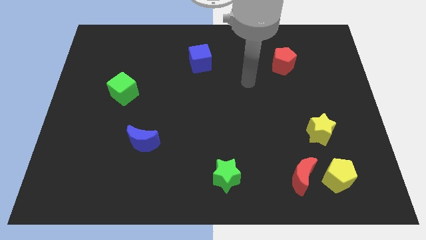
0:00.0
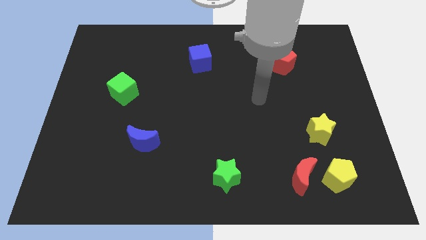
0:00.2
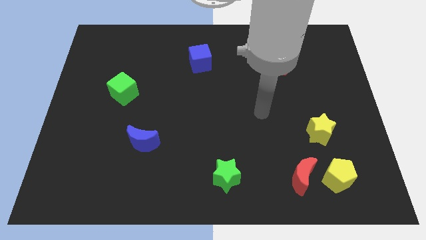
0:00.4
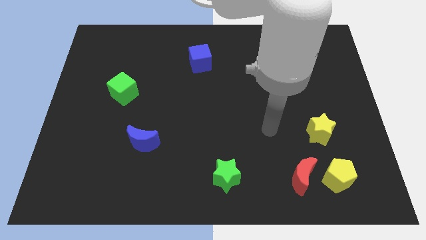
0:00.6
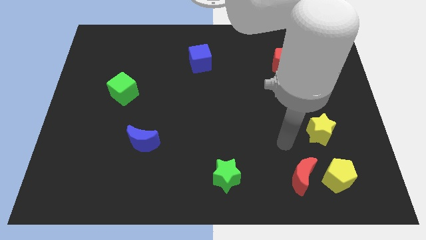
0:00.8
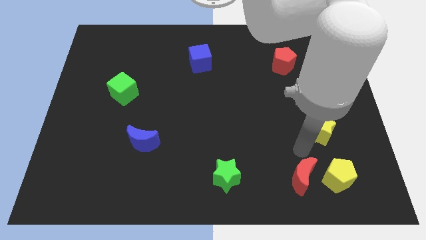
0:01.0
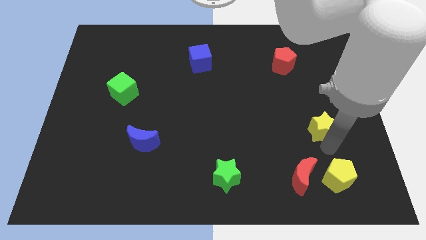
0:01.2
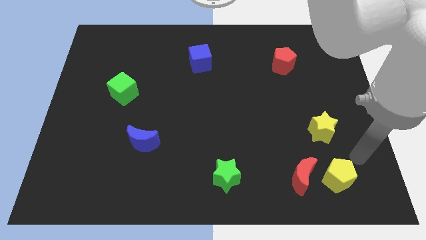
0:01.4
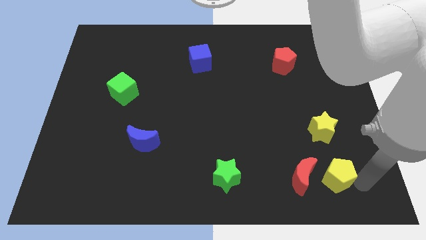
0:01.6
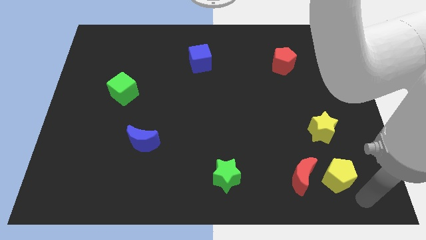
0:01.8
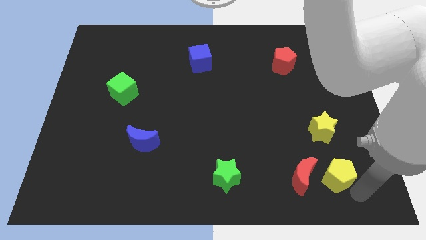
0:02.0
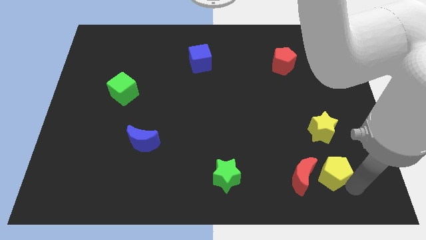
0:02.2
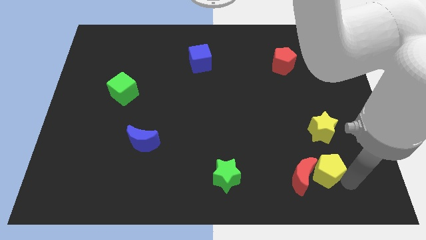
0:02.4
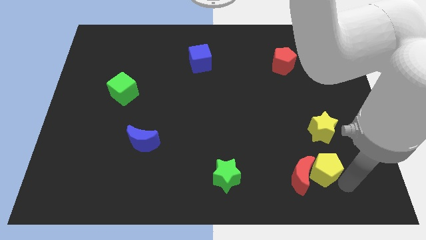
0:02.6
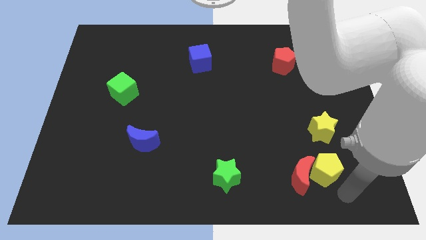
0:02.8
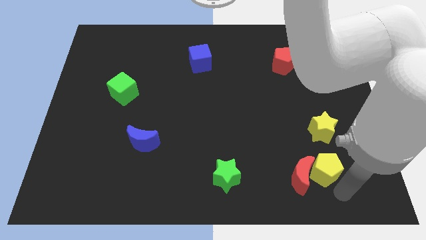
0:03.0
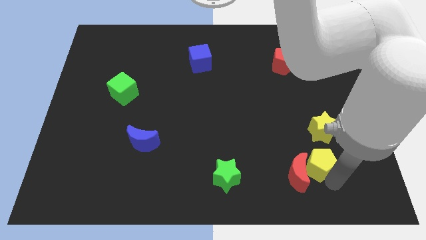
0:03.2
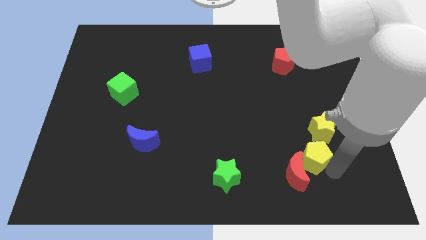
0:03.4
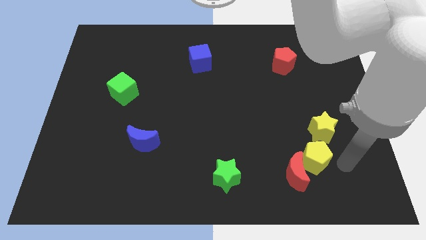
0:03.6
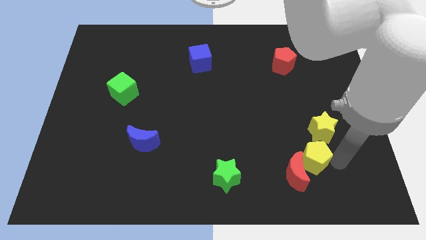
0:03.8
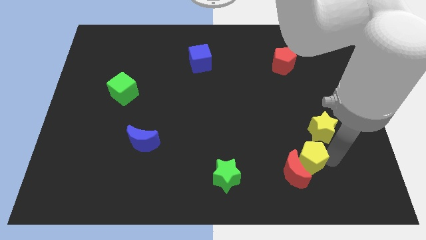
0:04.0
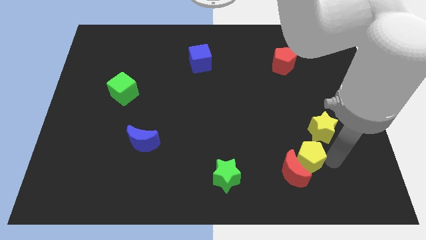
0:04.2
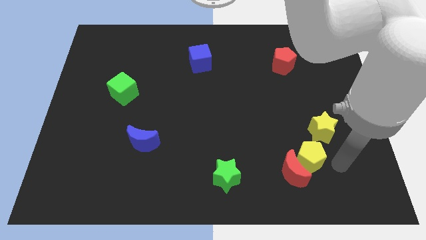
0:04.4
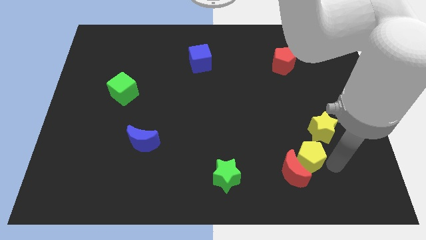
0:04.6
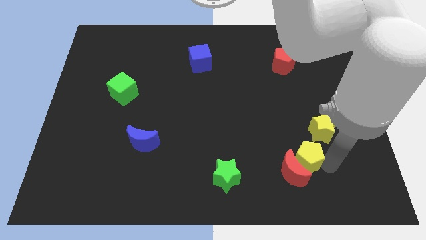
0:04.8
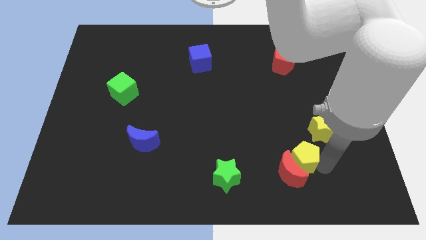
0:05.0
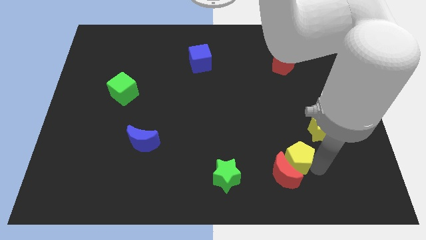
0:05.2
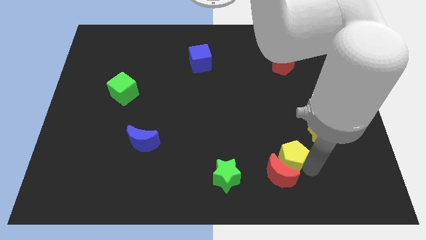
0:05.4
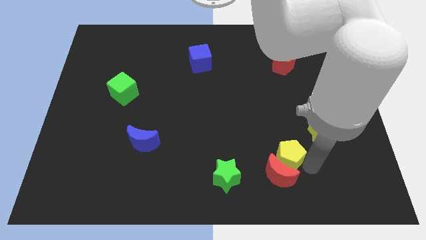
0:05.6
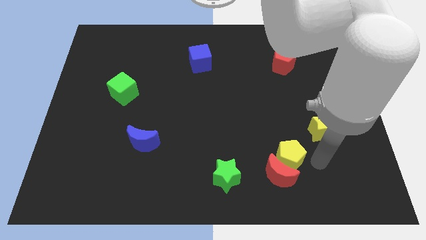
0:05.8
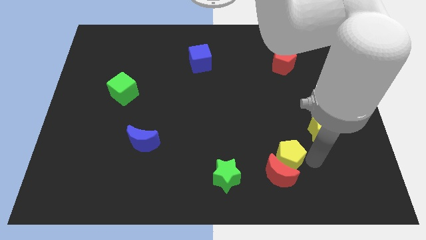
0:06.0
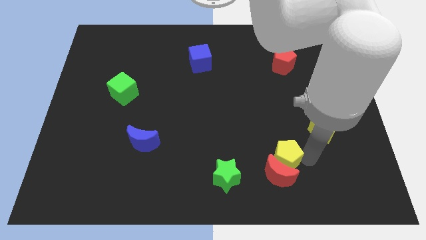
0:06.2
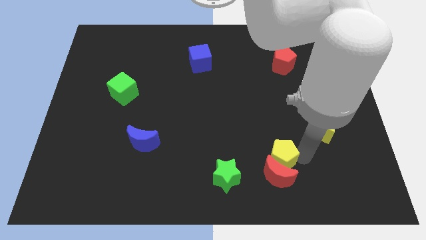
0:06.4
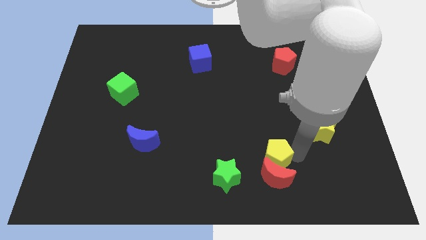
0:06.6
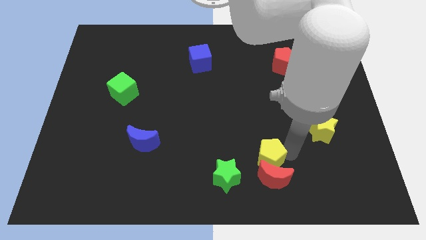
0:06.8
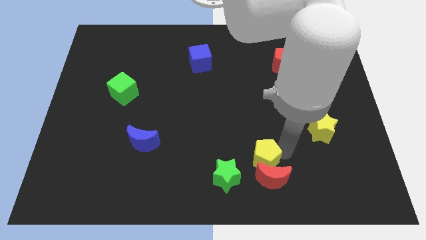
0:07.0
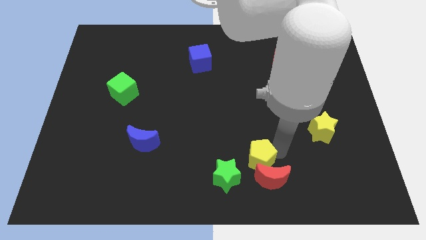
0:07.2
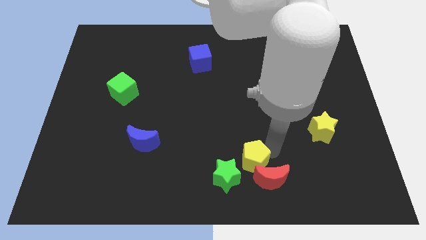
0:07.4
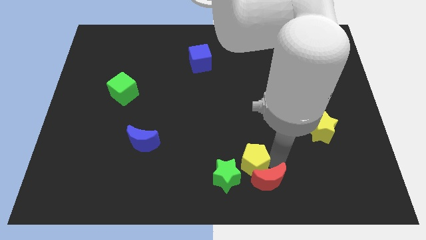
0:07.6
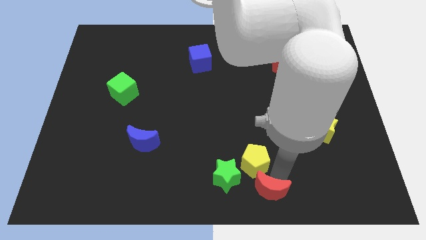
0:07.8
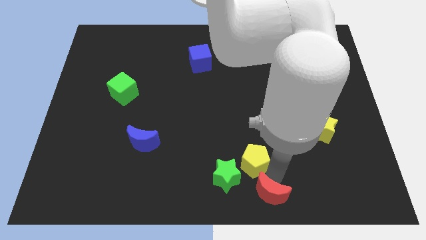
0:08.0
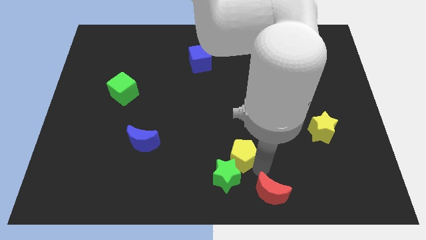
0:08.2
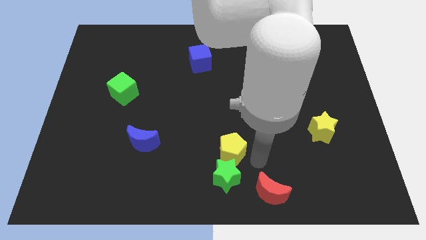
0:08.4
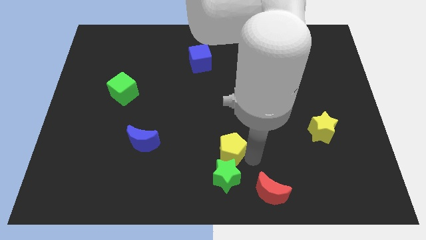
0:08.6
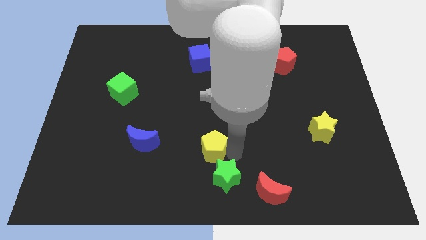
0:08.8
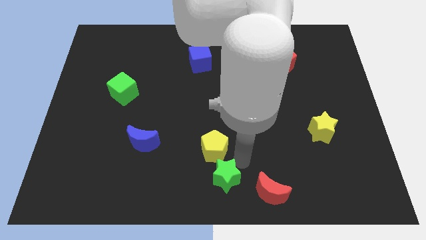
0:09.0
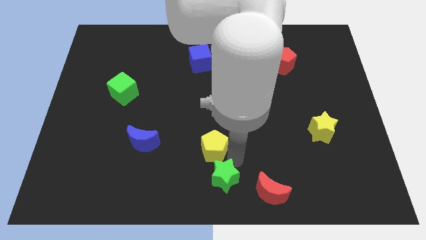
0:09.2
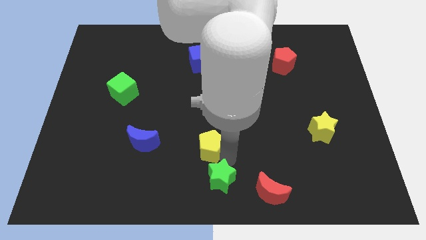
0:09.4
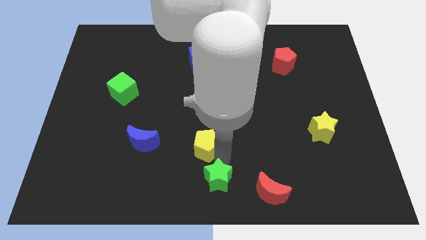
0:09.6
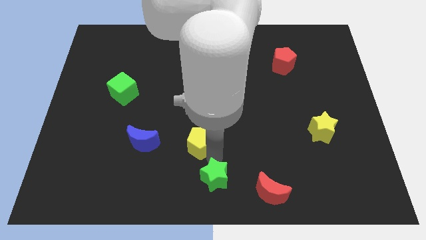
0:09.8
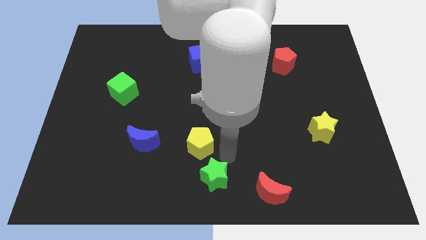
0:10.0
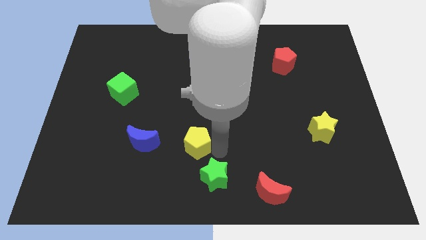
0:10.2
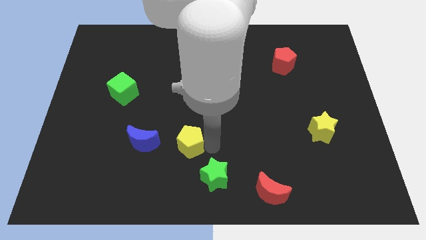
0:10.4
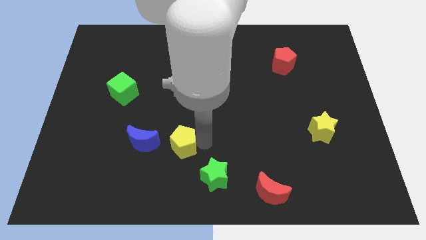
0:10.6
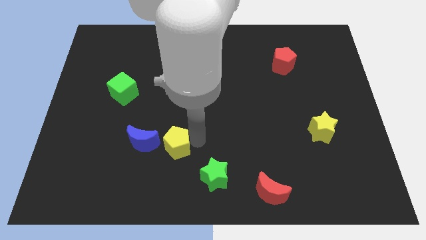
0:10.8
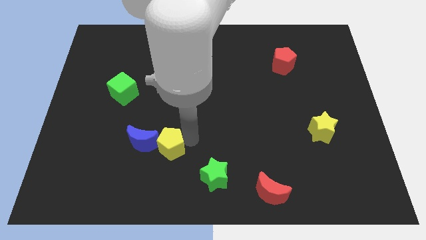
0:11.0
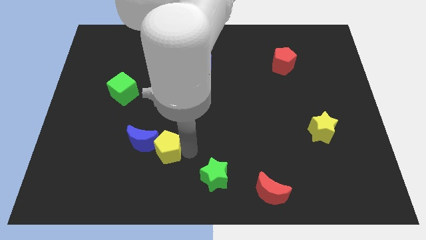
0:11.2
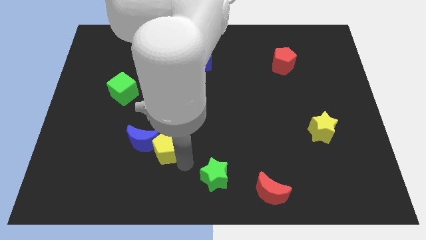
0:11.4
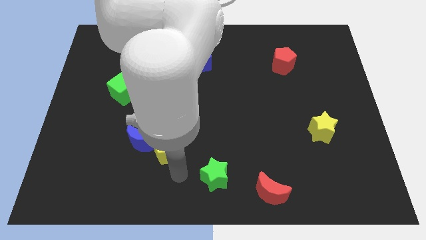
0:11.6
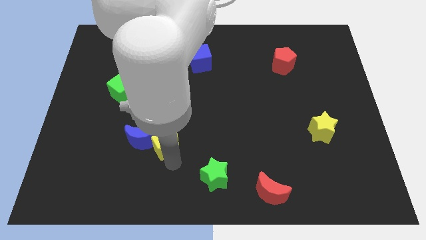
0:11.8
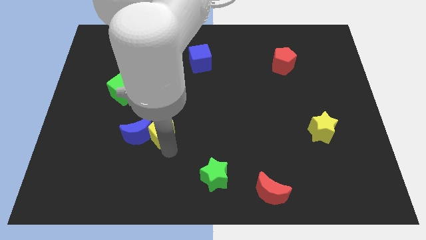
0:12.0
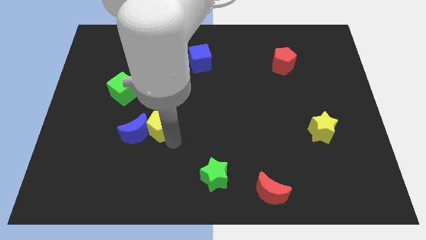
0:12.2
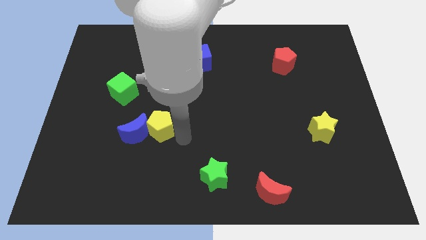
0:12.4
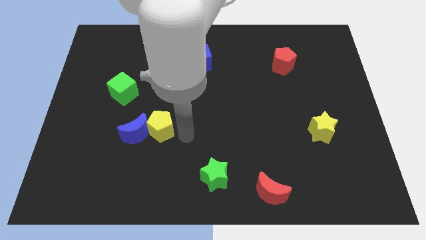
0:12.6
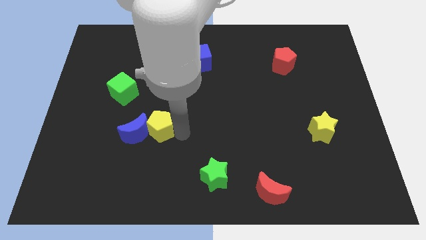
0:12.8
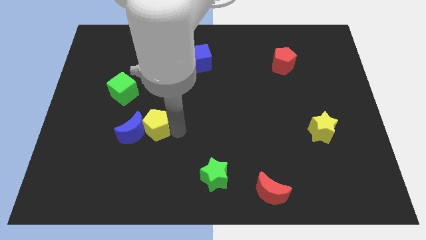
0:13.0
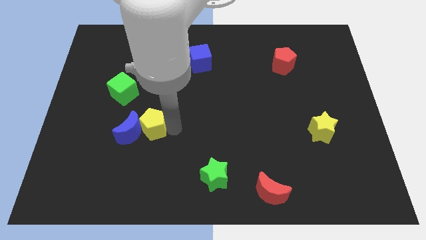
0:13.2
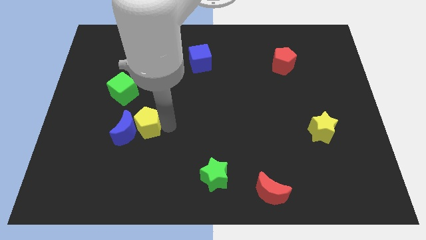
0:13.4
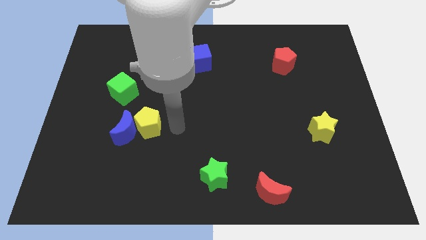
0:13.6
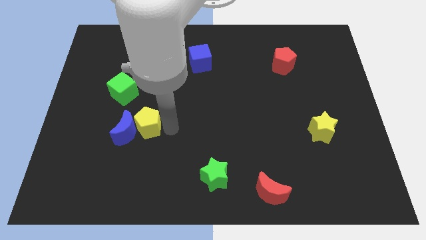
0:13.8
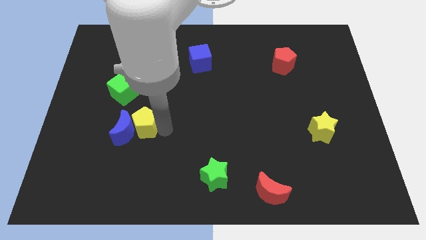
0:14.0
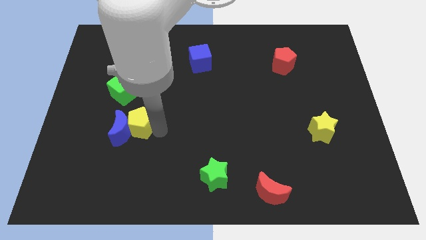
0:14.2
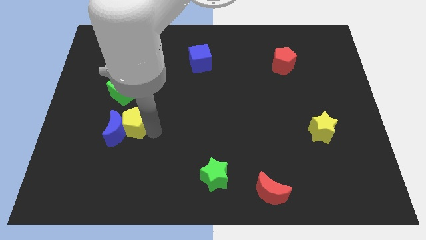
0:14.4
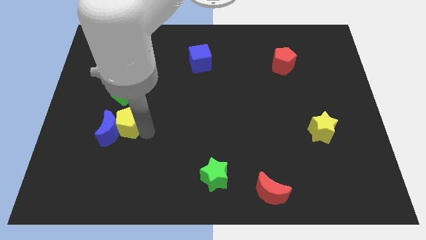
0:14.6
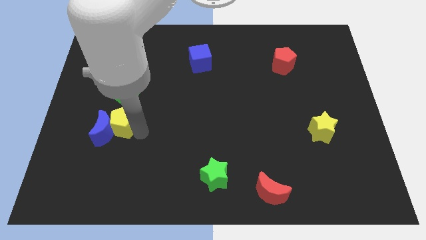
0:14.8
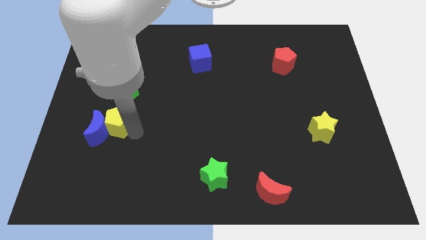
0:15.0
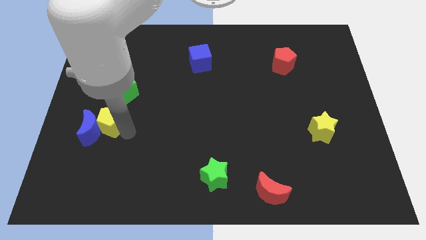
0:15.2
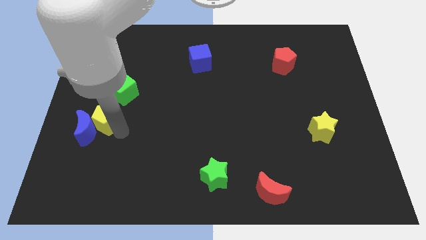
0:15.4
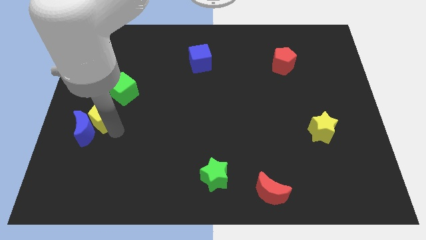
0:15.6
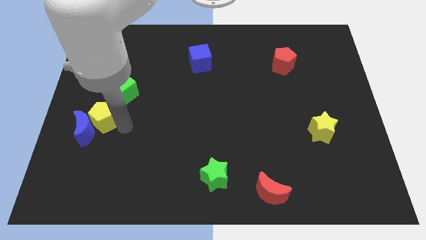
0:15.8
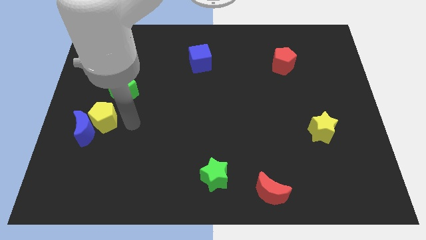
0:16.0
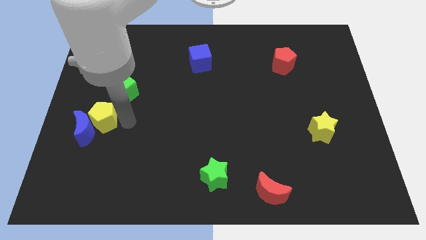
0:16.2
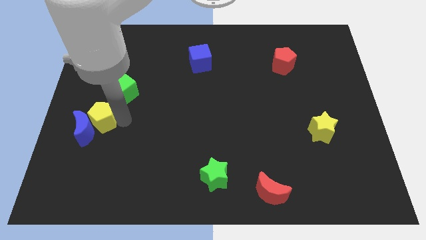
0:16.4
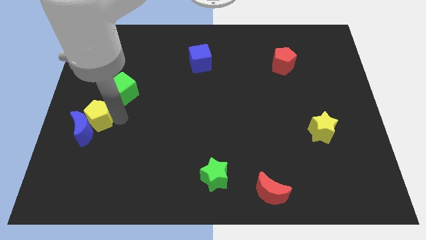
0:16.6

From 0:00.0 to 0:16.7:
push the yellow pentagon to the center left
